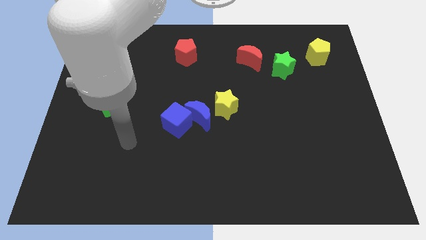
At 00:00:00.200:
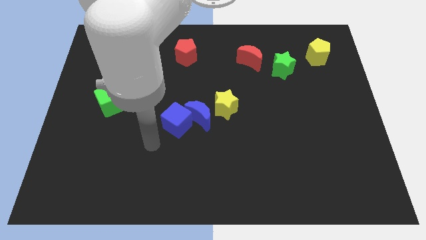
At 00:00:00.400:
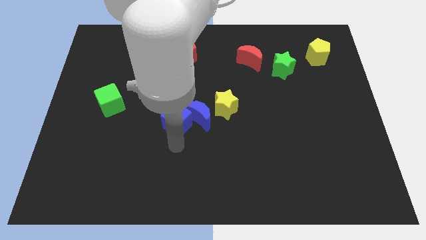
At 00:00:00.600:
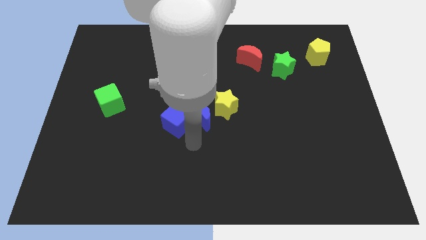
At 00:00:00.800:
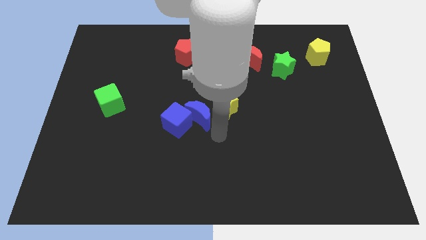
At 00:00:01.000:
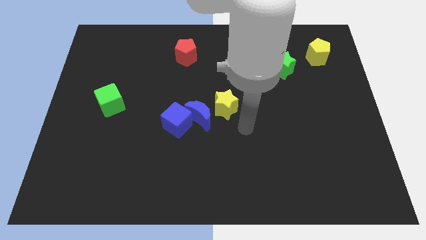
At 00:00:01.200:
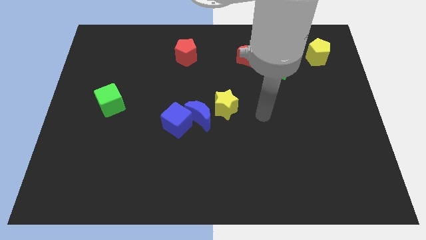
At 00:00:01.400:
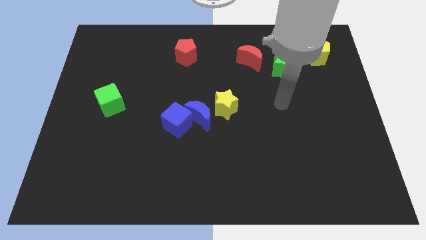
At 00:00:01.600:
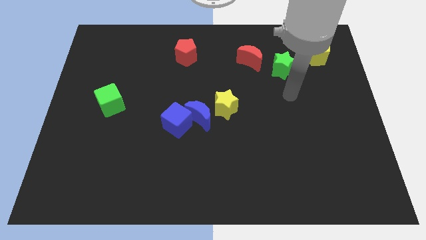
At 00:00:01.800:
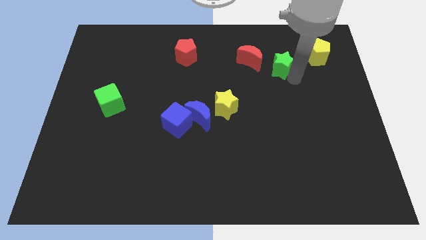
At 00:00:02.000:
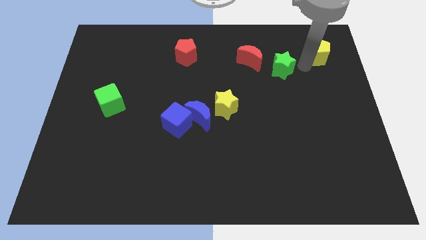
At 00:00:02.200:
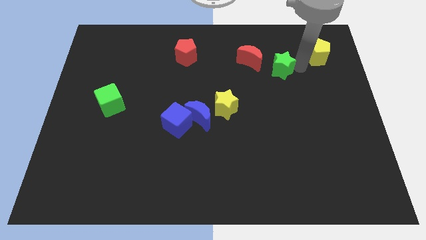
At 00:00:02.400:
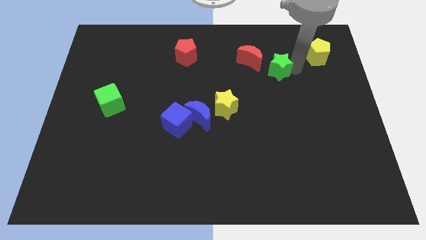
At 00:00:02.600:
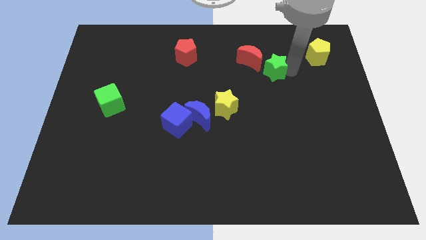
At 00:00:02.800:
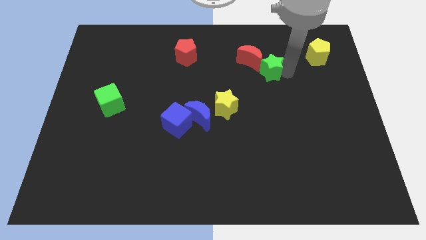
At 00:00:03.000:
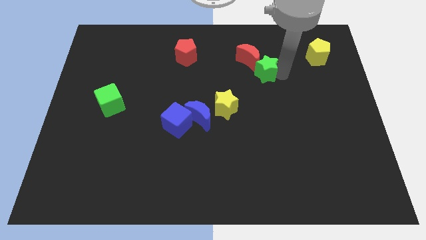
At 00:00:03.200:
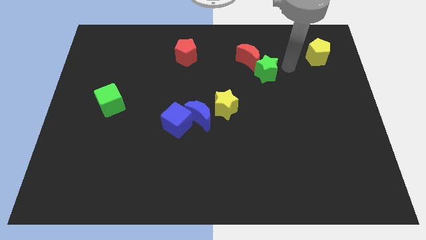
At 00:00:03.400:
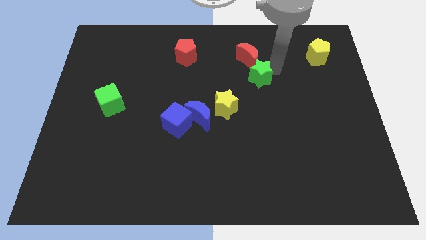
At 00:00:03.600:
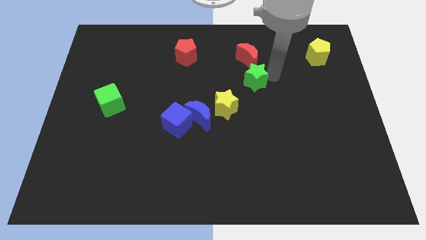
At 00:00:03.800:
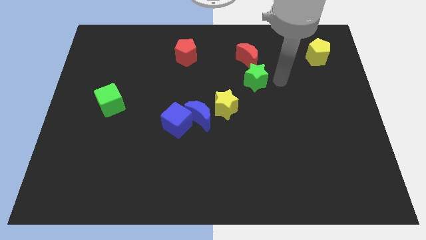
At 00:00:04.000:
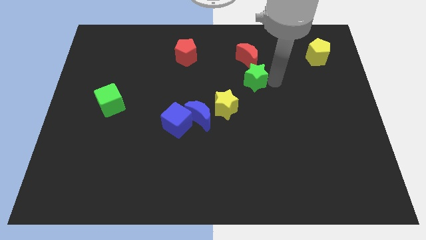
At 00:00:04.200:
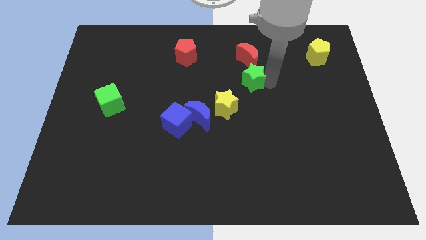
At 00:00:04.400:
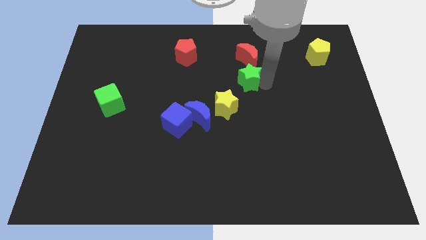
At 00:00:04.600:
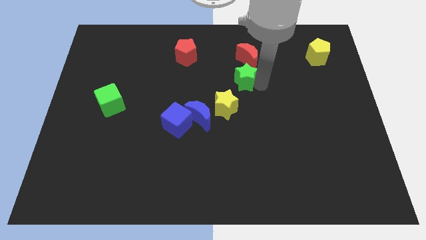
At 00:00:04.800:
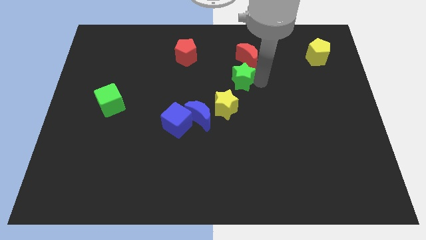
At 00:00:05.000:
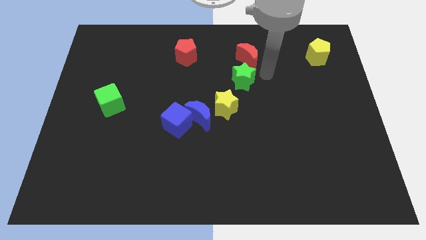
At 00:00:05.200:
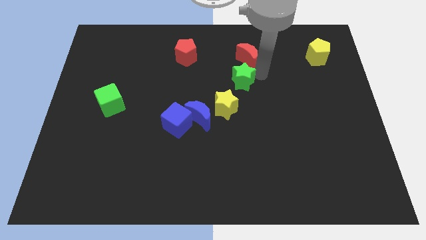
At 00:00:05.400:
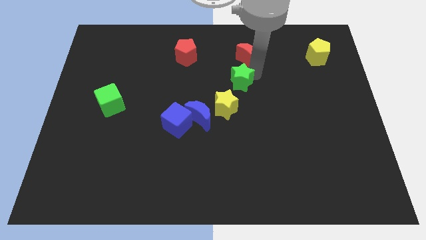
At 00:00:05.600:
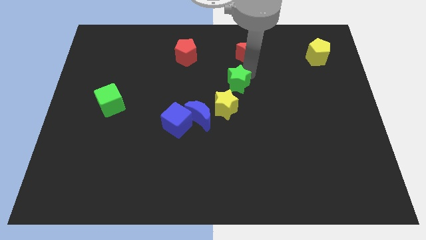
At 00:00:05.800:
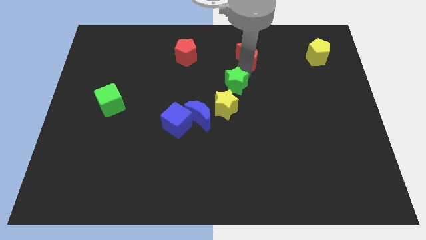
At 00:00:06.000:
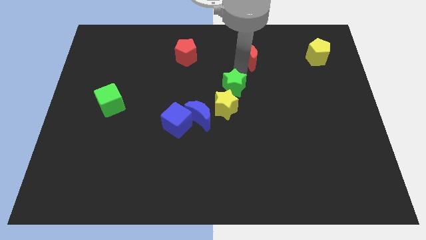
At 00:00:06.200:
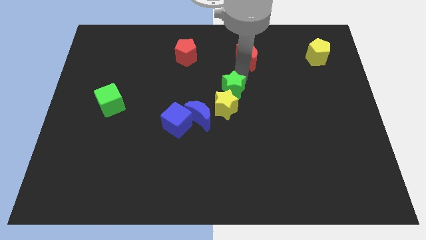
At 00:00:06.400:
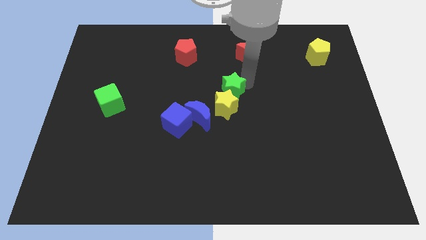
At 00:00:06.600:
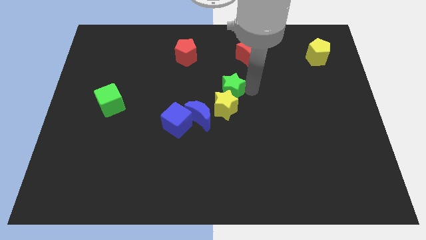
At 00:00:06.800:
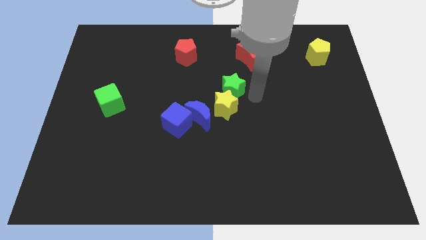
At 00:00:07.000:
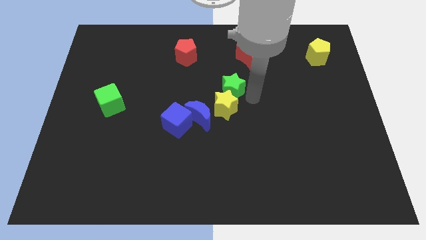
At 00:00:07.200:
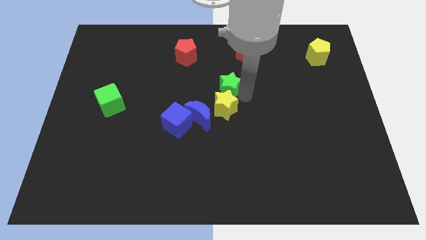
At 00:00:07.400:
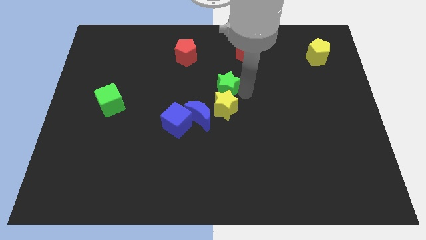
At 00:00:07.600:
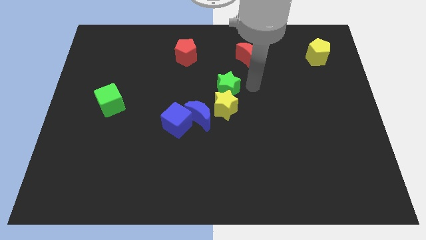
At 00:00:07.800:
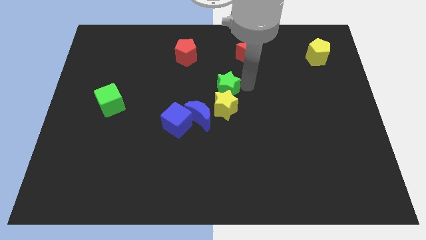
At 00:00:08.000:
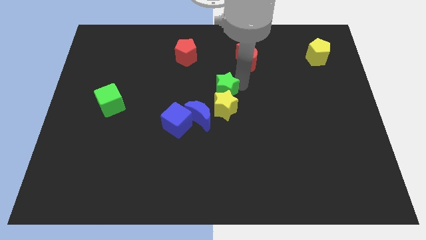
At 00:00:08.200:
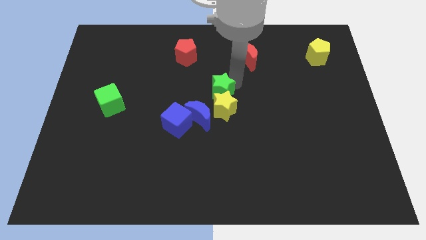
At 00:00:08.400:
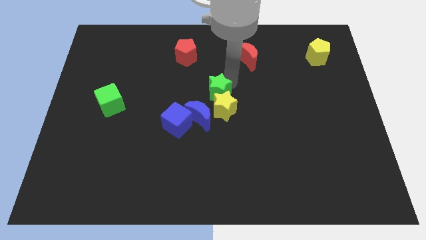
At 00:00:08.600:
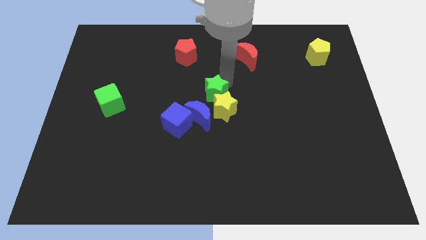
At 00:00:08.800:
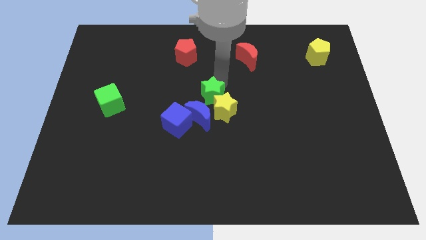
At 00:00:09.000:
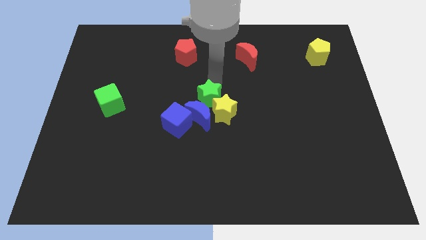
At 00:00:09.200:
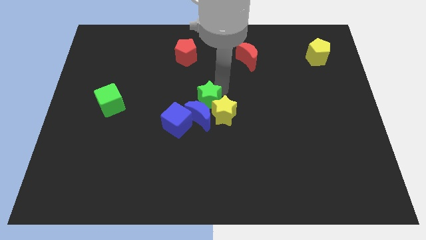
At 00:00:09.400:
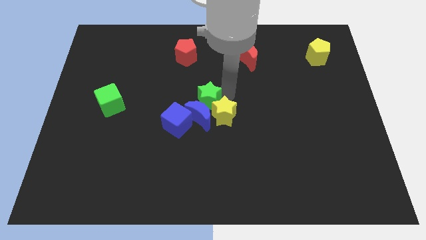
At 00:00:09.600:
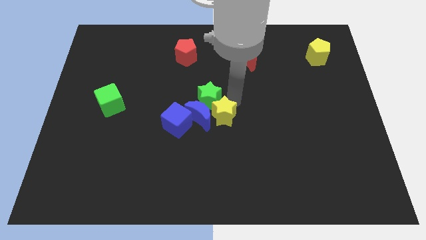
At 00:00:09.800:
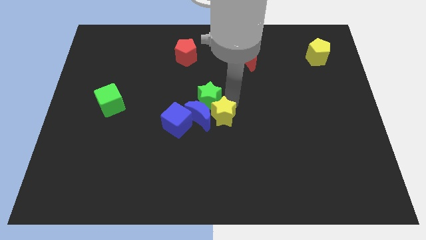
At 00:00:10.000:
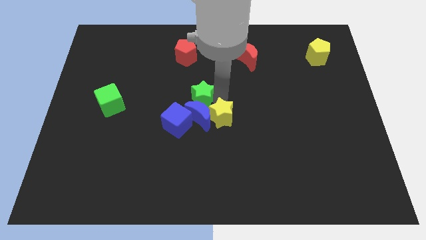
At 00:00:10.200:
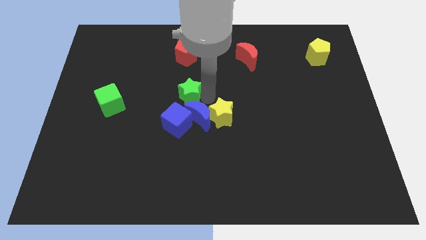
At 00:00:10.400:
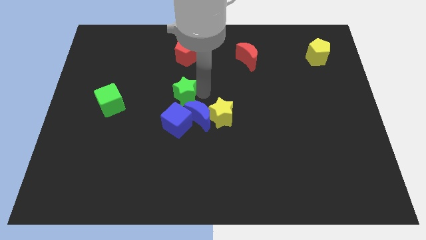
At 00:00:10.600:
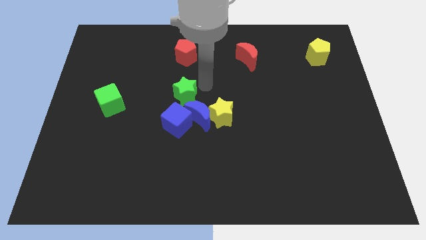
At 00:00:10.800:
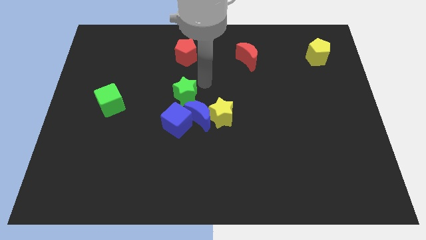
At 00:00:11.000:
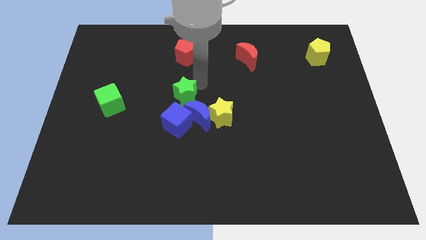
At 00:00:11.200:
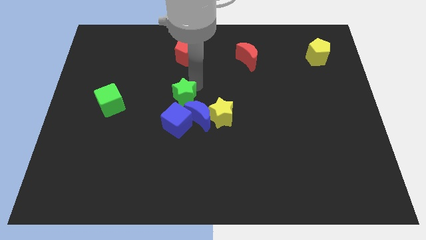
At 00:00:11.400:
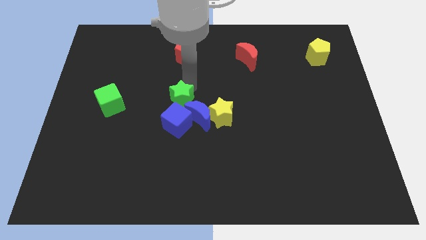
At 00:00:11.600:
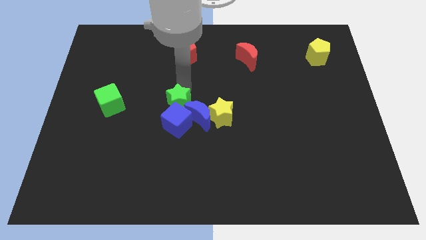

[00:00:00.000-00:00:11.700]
move the green star to the top left of the blue cube

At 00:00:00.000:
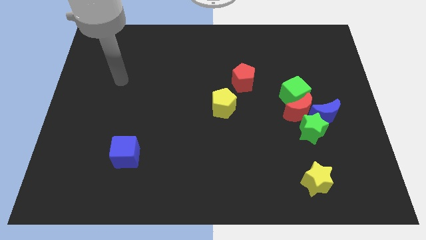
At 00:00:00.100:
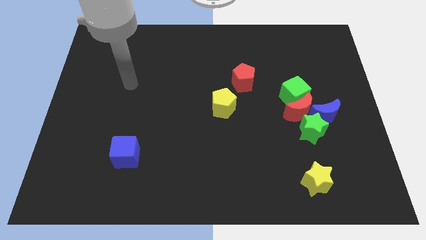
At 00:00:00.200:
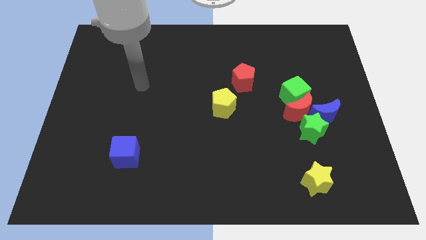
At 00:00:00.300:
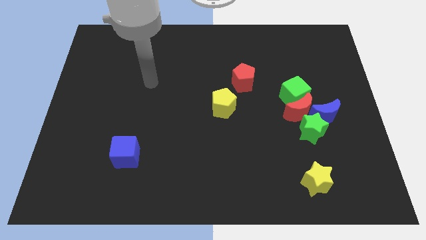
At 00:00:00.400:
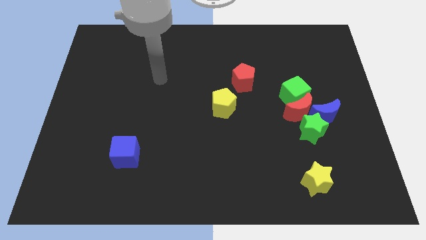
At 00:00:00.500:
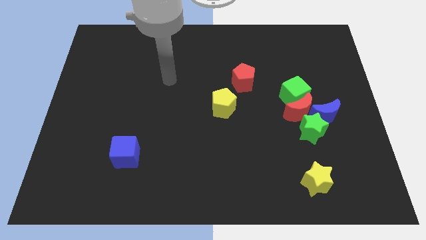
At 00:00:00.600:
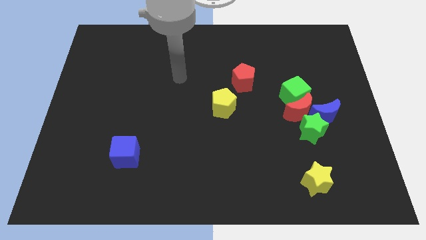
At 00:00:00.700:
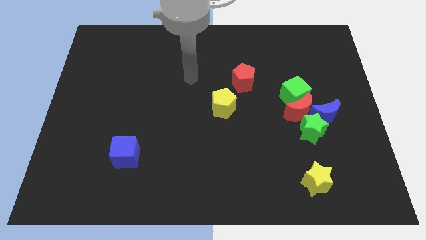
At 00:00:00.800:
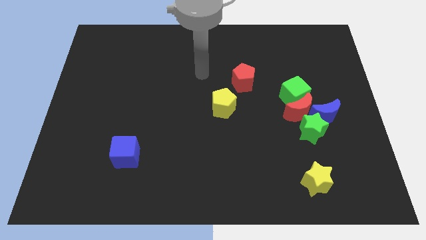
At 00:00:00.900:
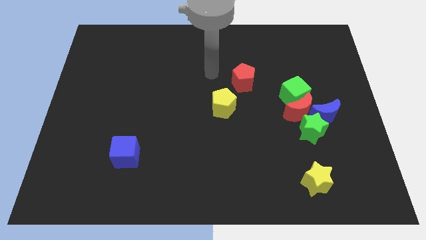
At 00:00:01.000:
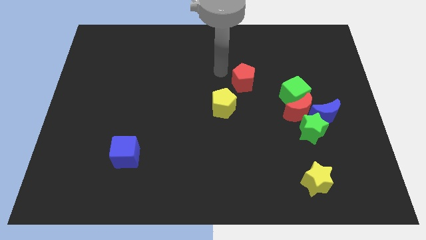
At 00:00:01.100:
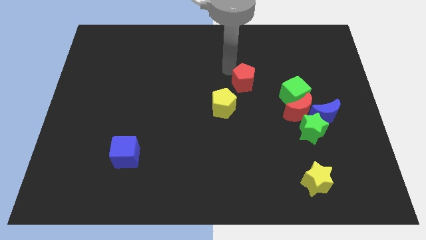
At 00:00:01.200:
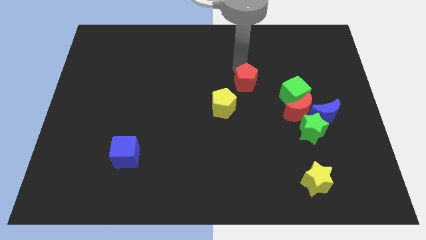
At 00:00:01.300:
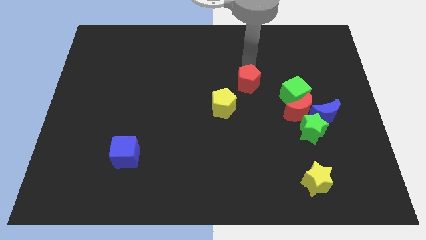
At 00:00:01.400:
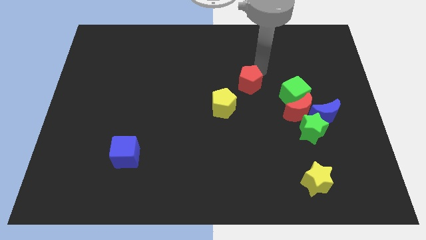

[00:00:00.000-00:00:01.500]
put the green cube diagonally down and to the right of the red pentagon
